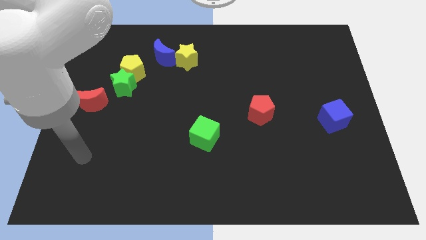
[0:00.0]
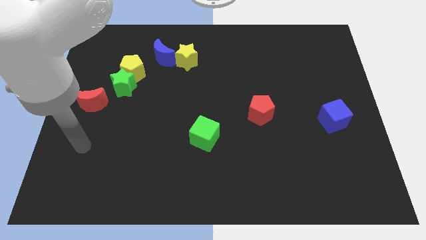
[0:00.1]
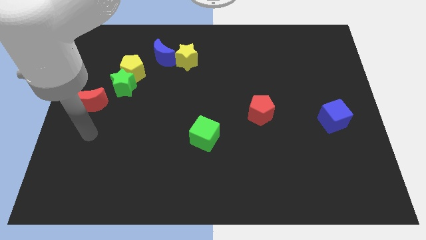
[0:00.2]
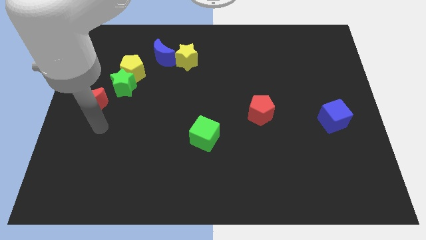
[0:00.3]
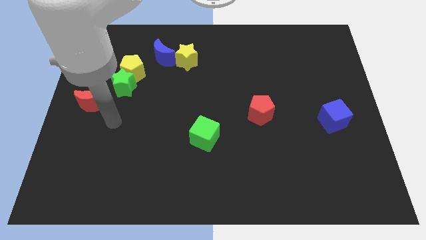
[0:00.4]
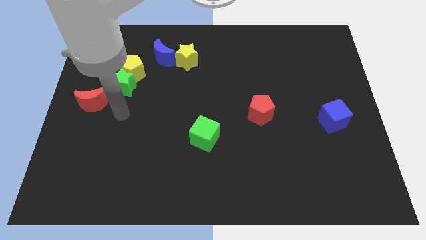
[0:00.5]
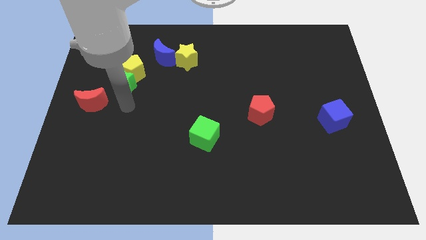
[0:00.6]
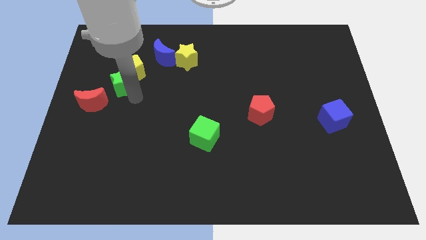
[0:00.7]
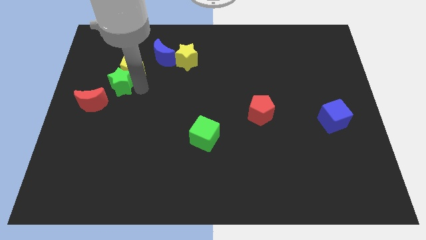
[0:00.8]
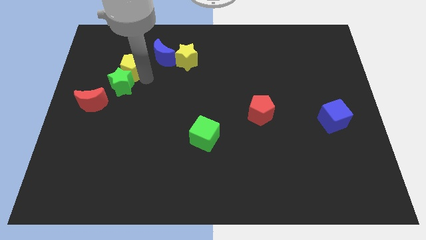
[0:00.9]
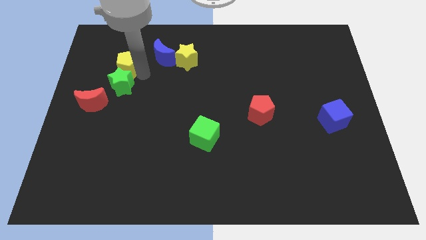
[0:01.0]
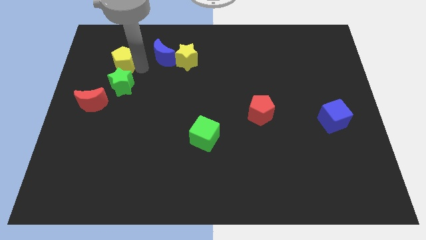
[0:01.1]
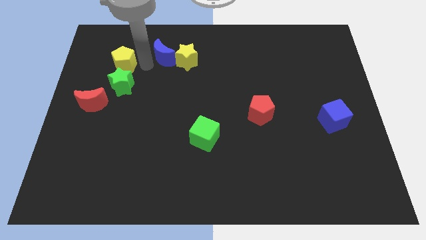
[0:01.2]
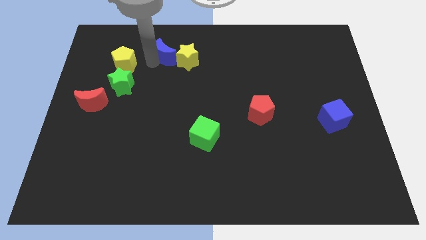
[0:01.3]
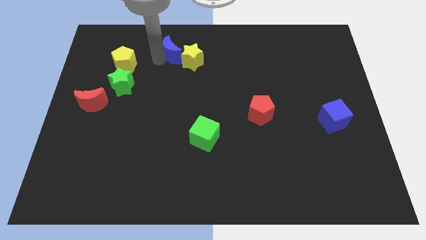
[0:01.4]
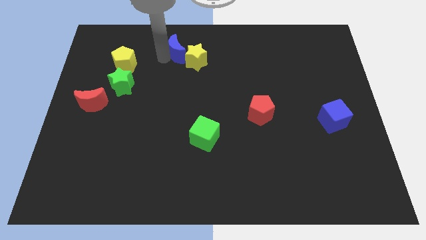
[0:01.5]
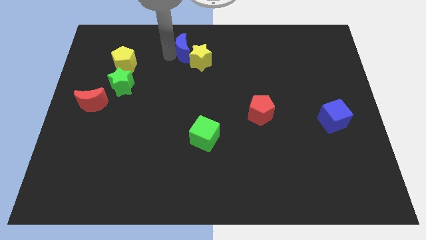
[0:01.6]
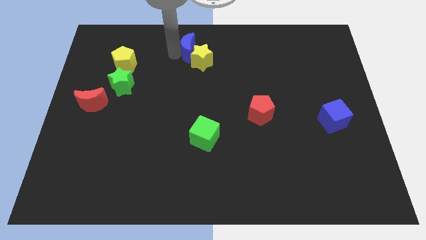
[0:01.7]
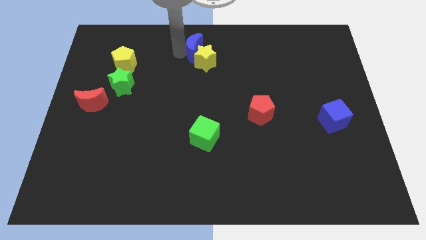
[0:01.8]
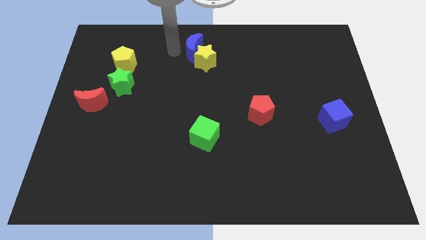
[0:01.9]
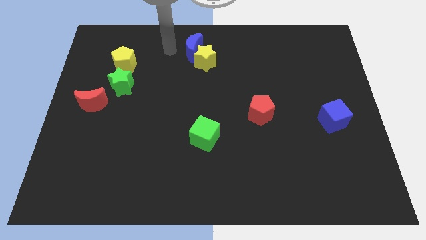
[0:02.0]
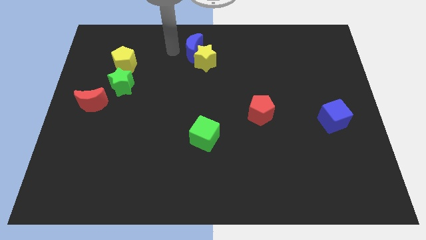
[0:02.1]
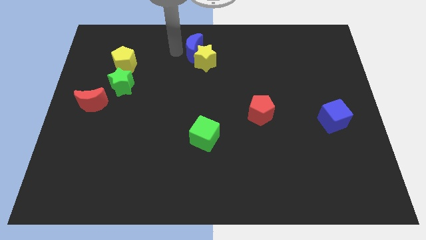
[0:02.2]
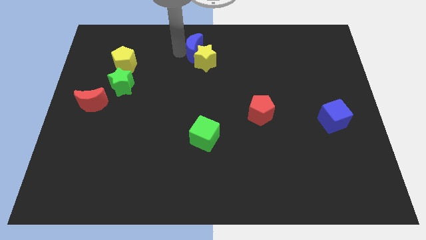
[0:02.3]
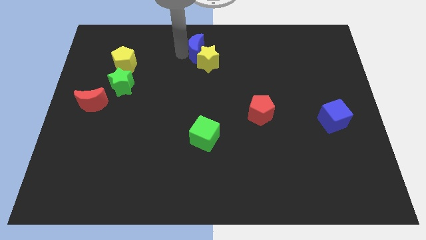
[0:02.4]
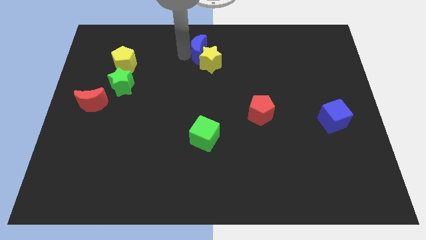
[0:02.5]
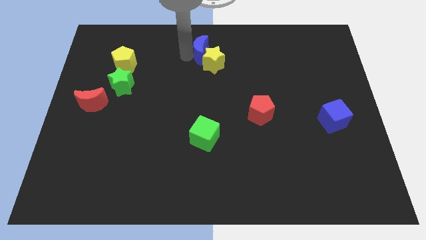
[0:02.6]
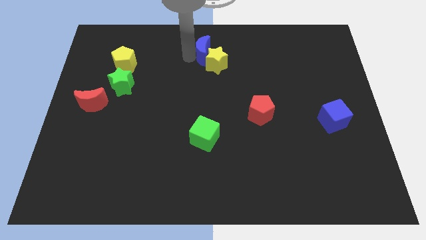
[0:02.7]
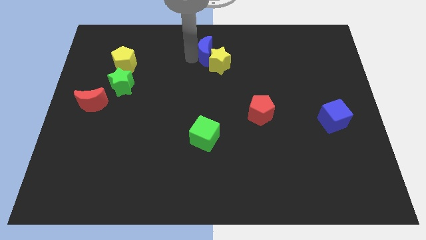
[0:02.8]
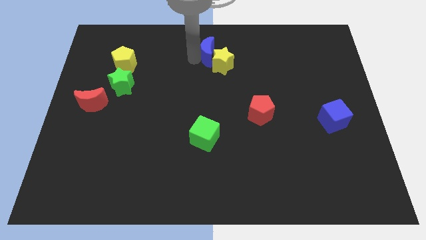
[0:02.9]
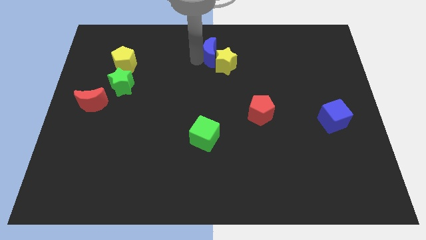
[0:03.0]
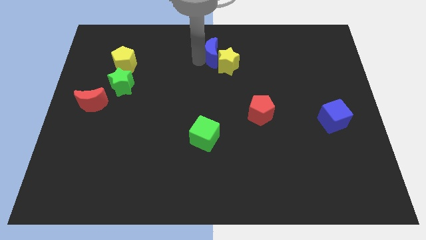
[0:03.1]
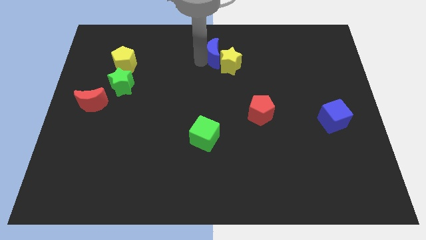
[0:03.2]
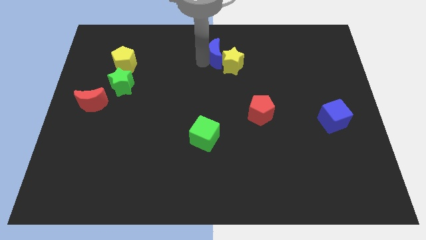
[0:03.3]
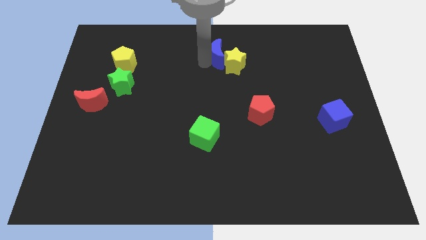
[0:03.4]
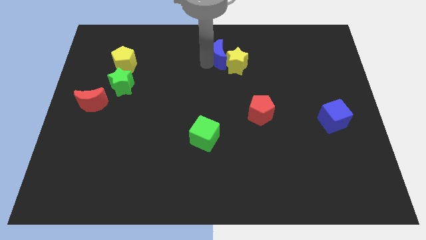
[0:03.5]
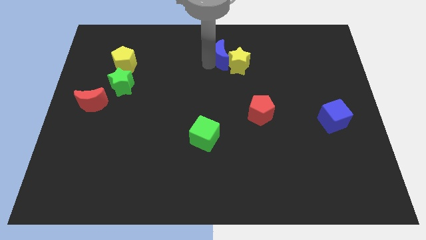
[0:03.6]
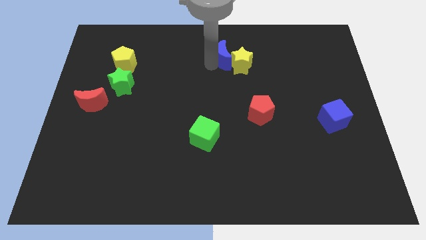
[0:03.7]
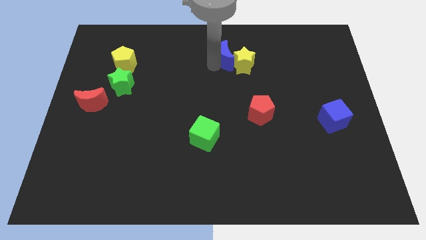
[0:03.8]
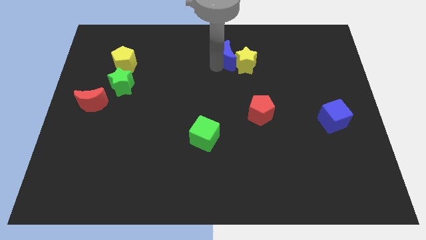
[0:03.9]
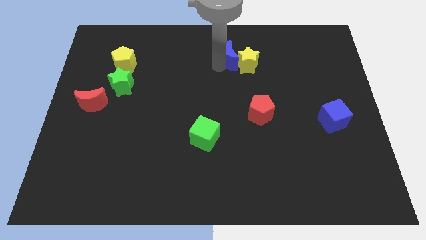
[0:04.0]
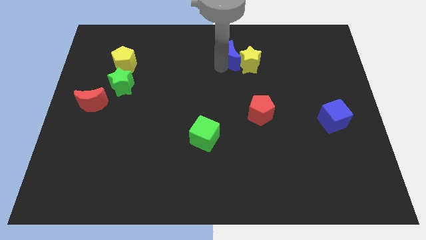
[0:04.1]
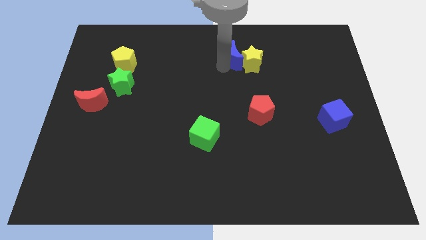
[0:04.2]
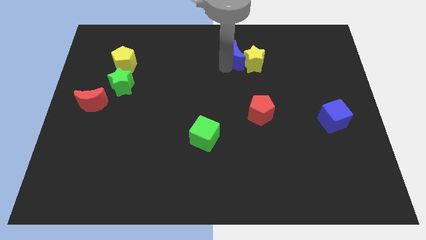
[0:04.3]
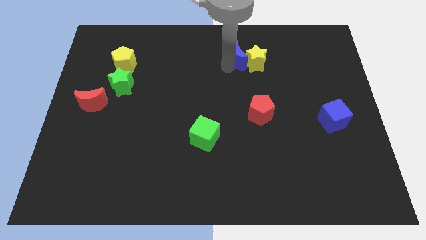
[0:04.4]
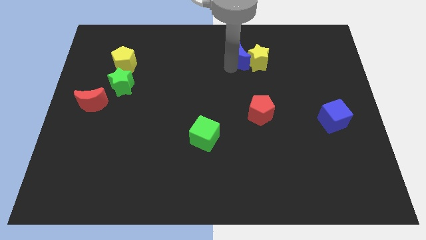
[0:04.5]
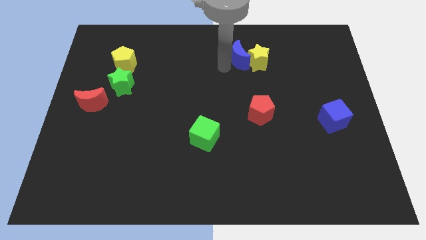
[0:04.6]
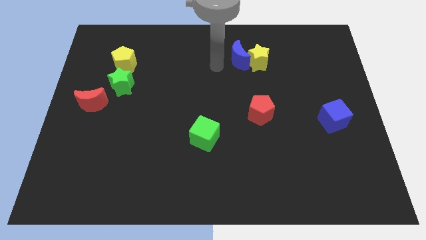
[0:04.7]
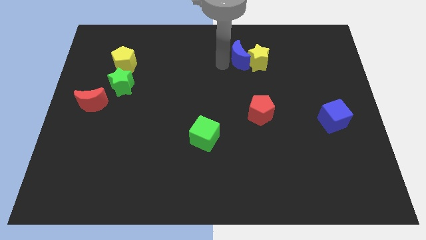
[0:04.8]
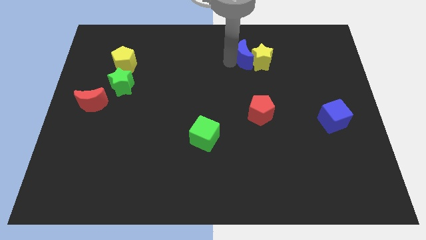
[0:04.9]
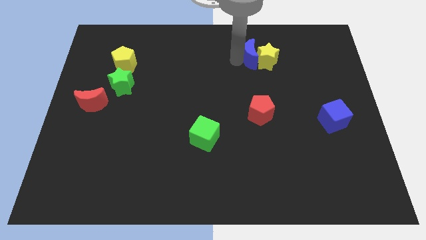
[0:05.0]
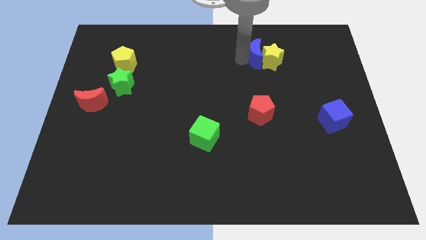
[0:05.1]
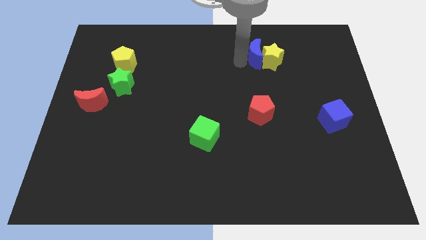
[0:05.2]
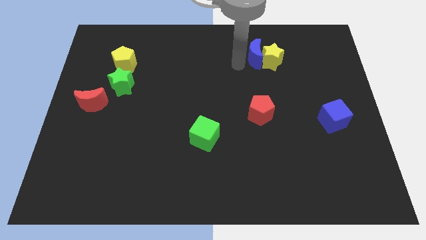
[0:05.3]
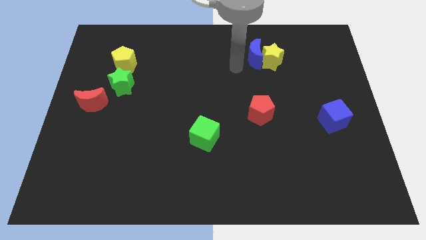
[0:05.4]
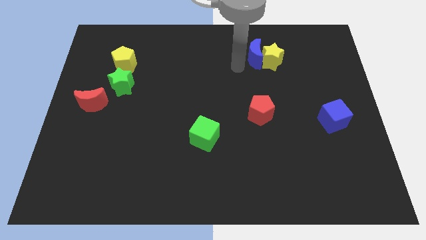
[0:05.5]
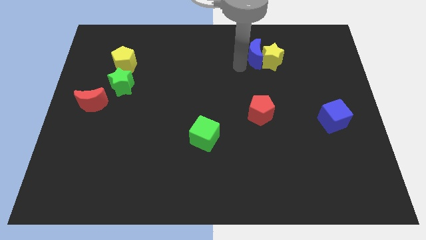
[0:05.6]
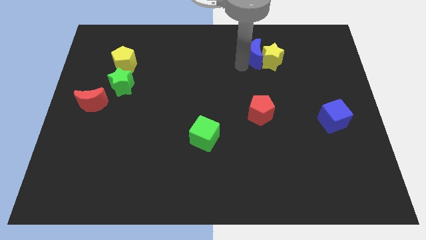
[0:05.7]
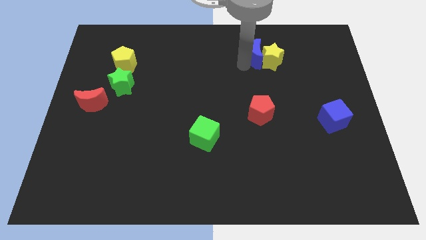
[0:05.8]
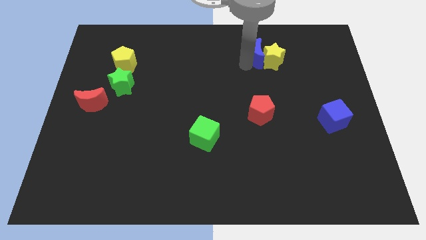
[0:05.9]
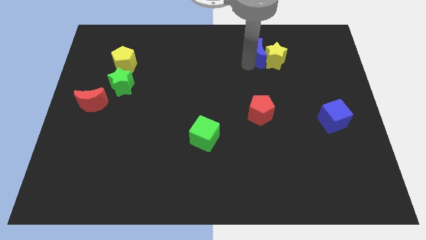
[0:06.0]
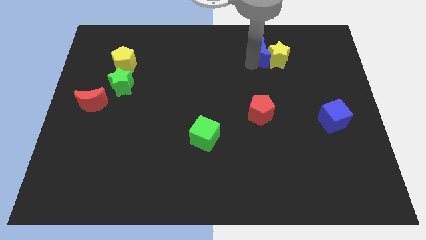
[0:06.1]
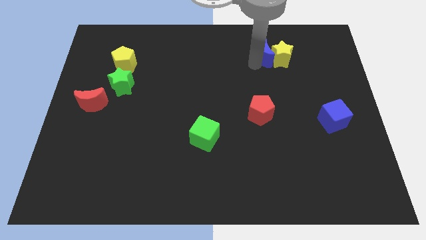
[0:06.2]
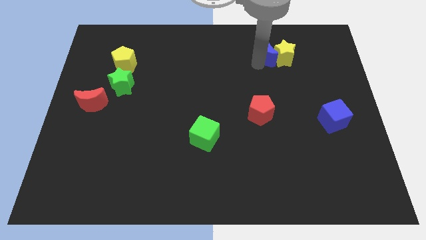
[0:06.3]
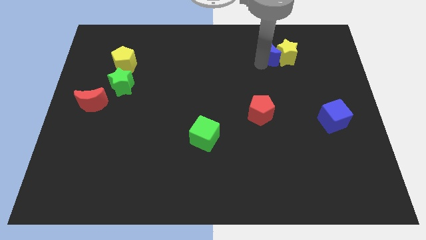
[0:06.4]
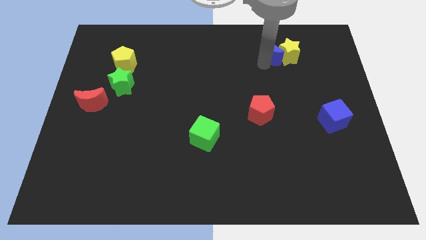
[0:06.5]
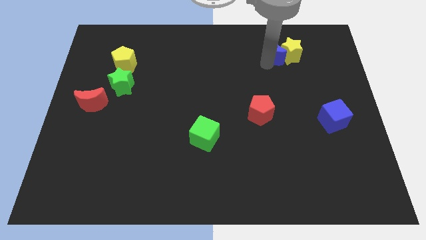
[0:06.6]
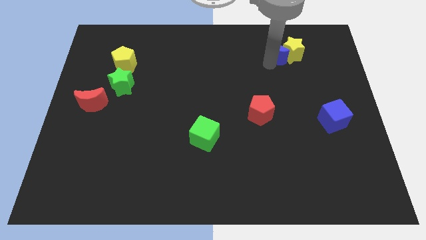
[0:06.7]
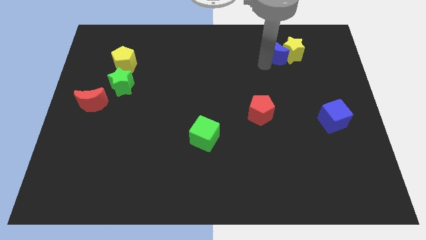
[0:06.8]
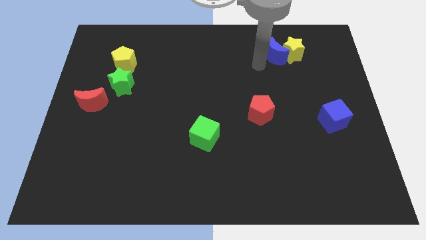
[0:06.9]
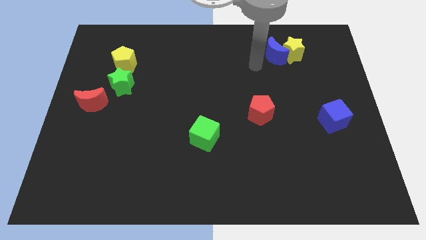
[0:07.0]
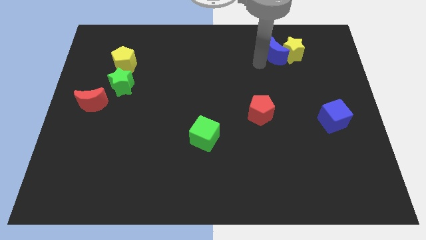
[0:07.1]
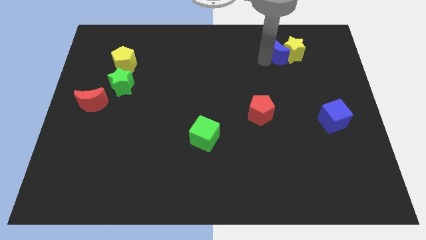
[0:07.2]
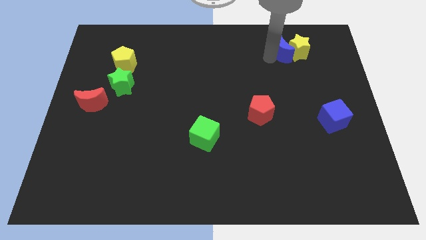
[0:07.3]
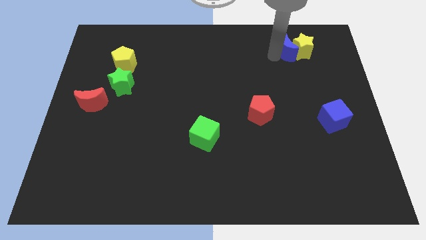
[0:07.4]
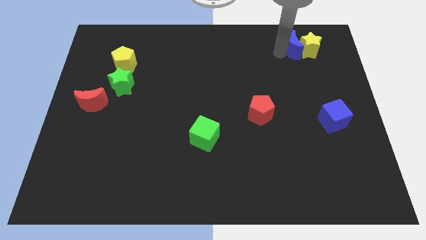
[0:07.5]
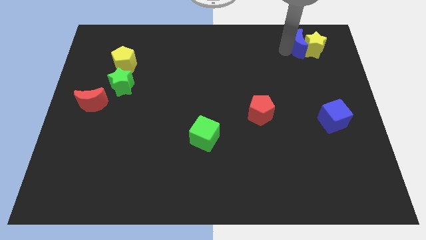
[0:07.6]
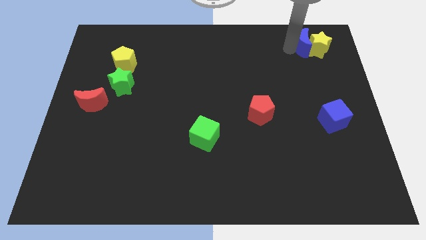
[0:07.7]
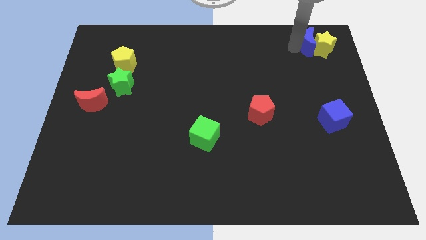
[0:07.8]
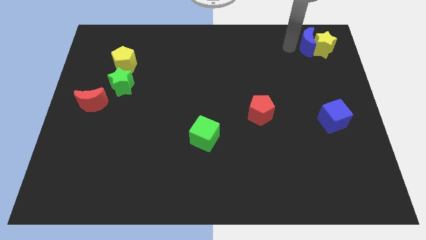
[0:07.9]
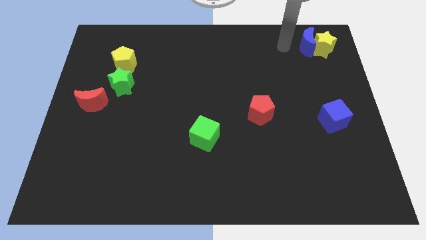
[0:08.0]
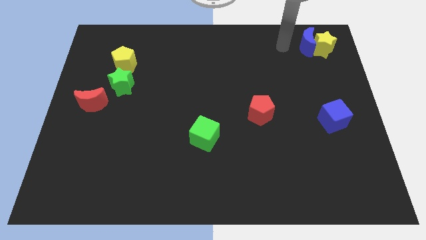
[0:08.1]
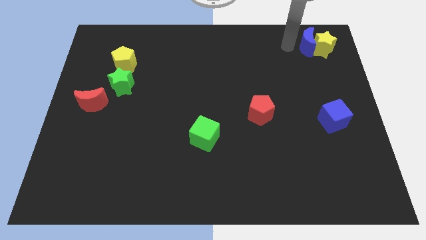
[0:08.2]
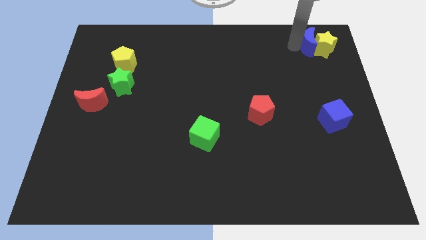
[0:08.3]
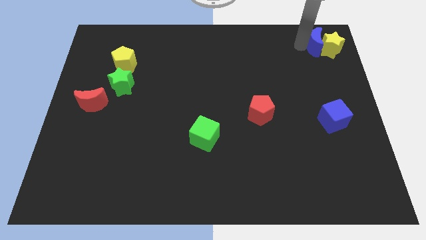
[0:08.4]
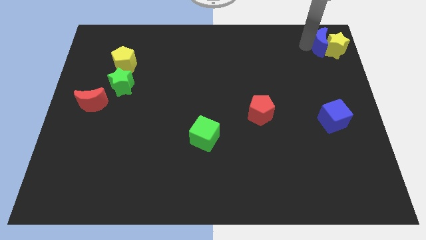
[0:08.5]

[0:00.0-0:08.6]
put the blue moon to the upper right corner
